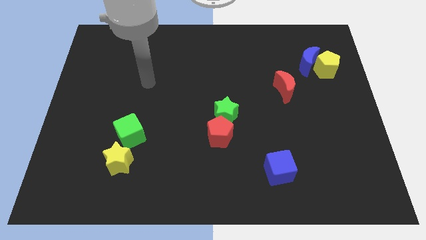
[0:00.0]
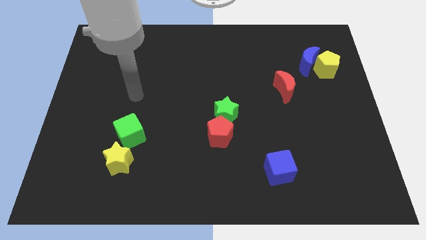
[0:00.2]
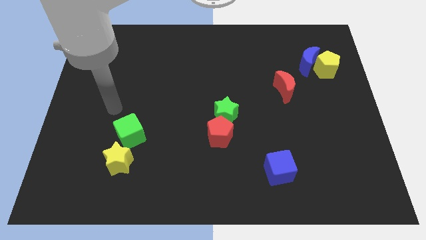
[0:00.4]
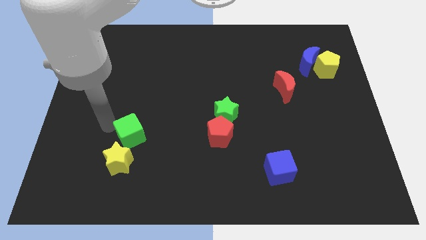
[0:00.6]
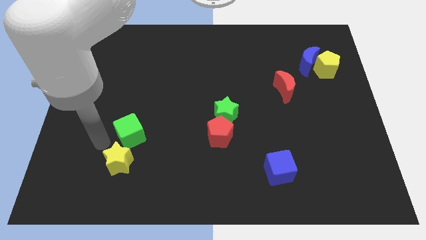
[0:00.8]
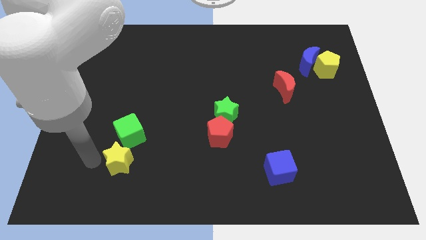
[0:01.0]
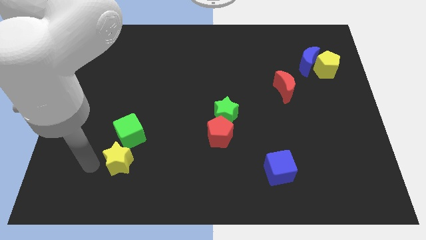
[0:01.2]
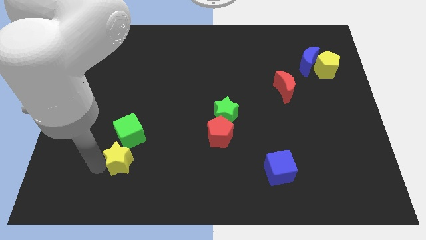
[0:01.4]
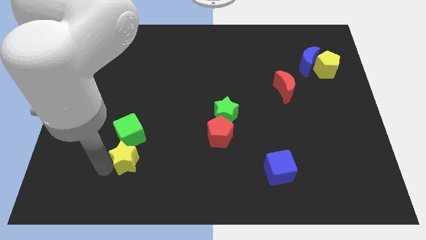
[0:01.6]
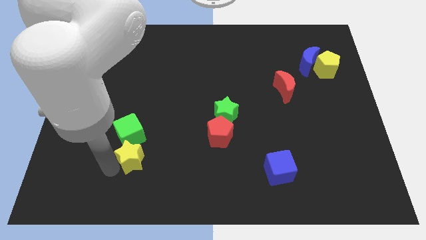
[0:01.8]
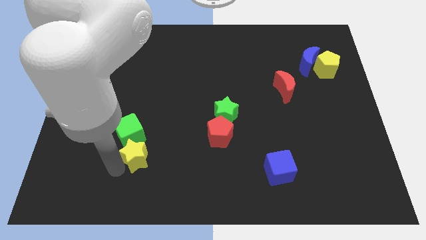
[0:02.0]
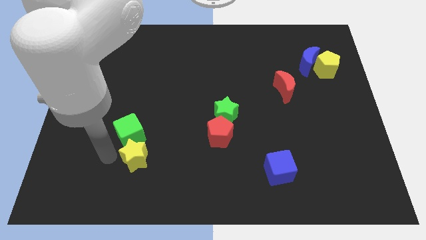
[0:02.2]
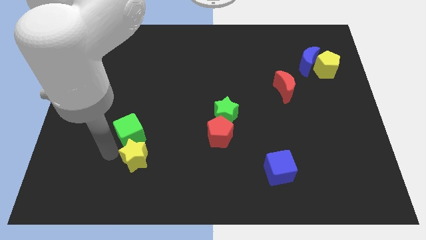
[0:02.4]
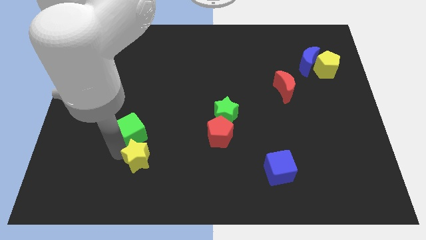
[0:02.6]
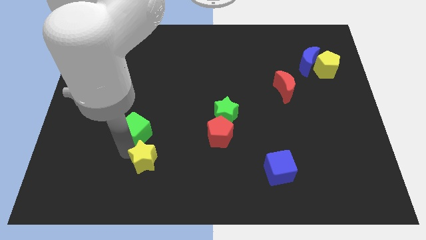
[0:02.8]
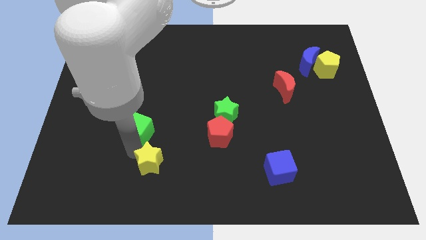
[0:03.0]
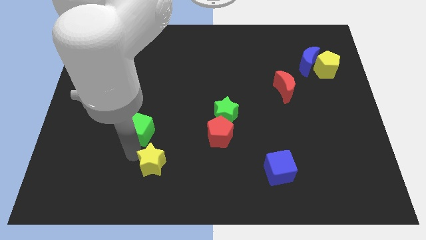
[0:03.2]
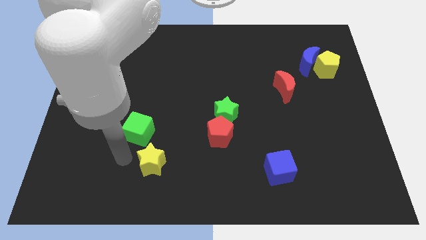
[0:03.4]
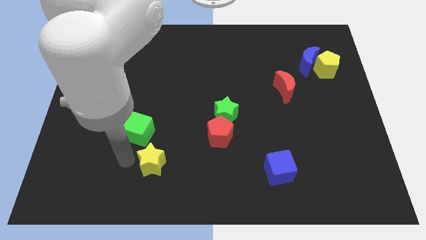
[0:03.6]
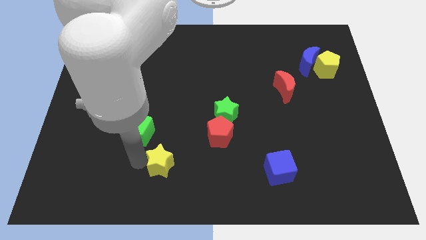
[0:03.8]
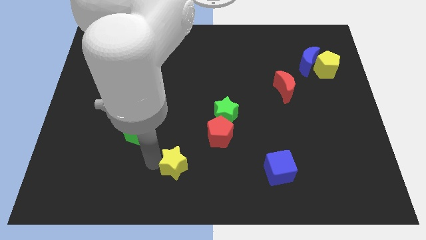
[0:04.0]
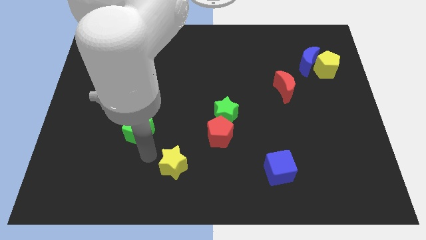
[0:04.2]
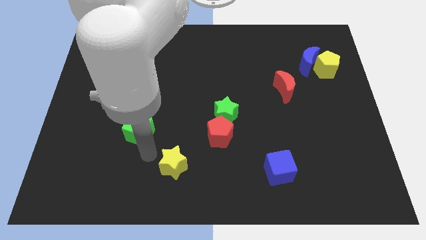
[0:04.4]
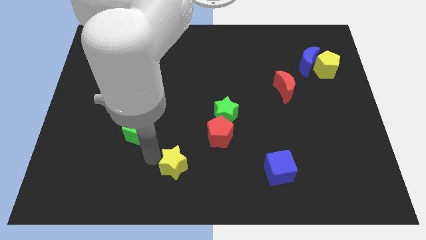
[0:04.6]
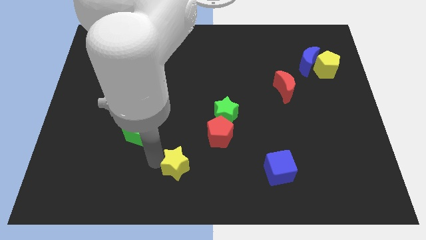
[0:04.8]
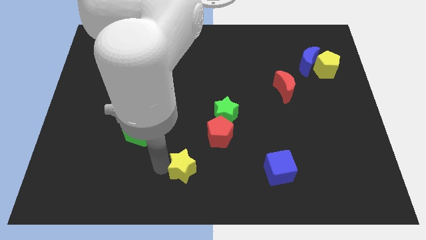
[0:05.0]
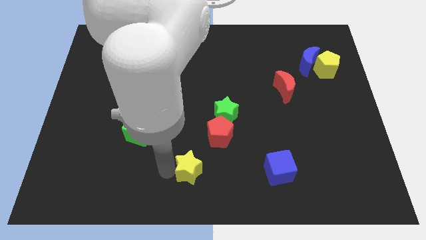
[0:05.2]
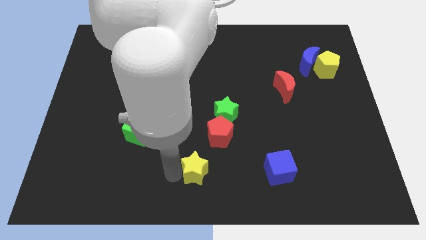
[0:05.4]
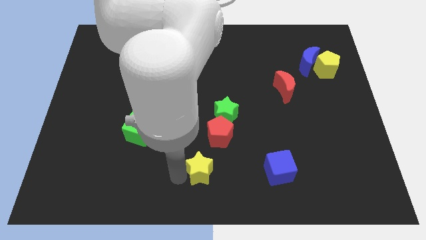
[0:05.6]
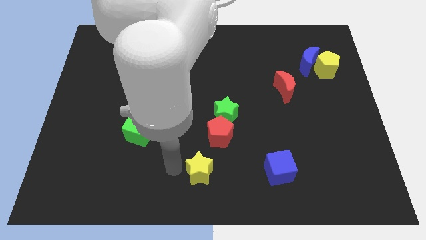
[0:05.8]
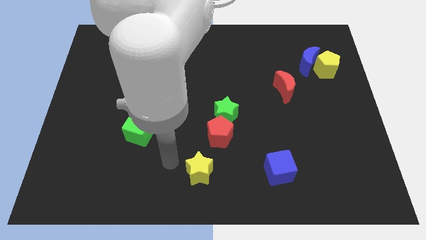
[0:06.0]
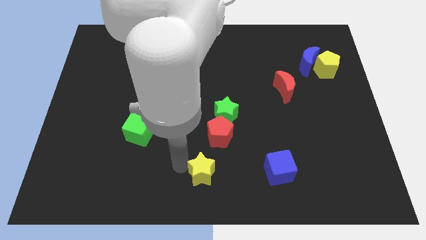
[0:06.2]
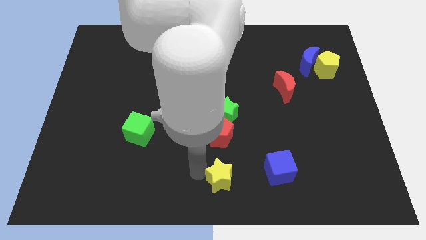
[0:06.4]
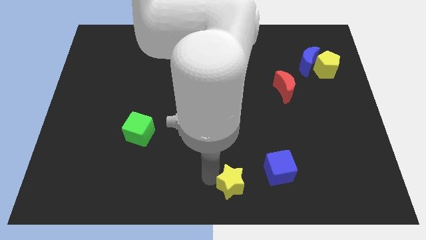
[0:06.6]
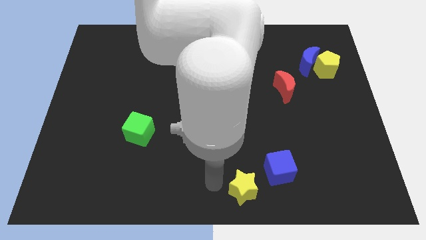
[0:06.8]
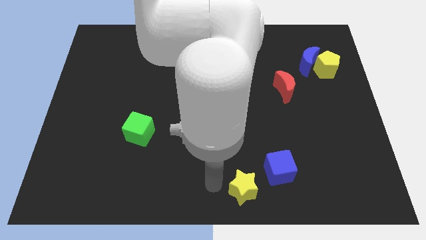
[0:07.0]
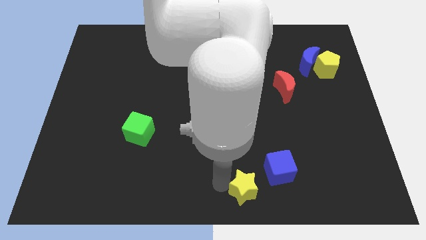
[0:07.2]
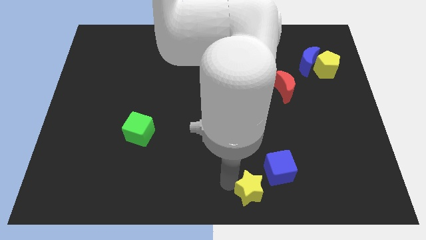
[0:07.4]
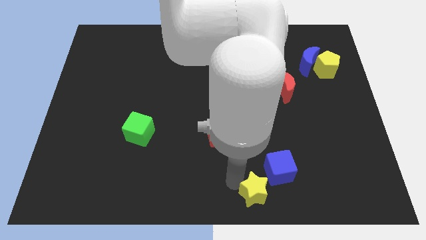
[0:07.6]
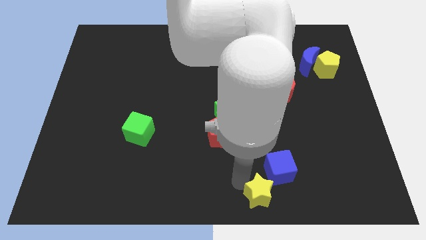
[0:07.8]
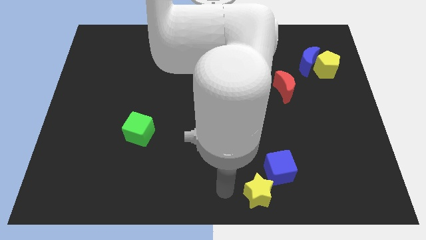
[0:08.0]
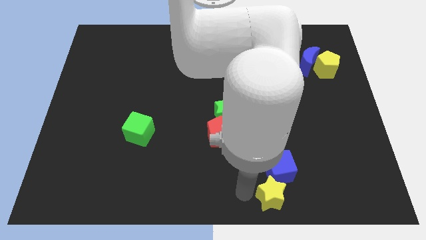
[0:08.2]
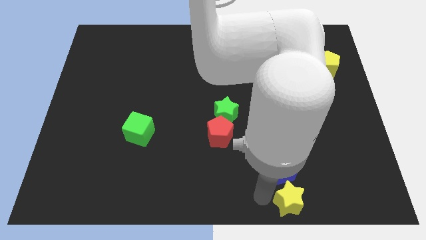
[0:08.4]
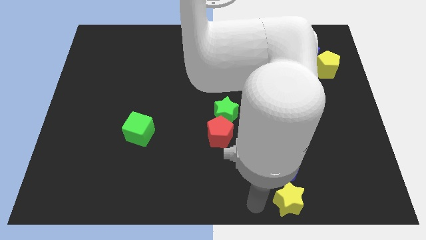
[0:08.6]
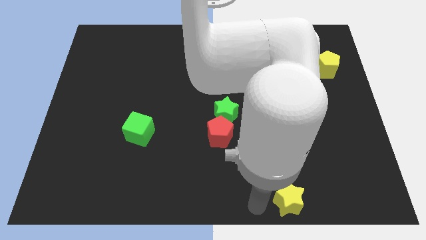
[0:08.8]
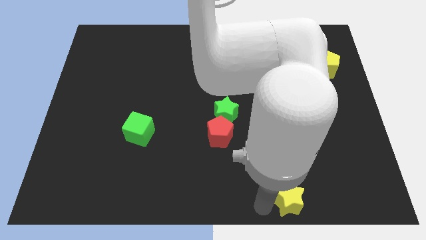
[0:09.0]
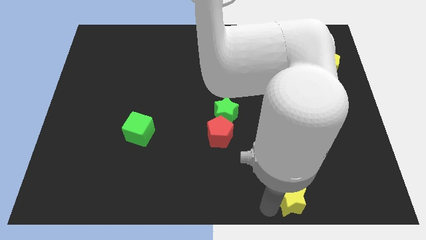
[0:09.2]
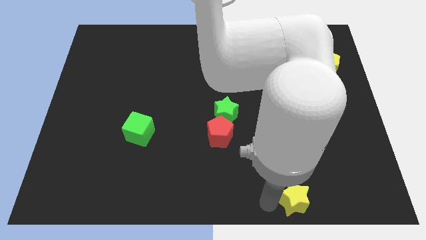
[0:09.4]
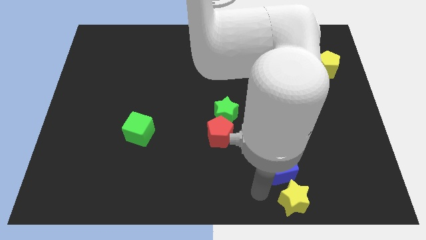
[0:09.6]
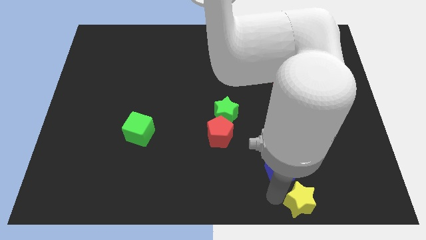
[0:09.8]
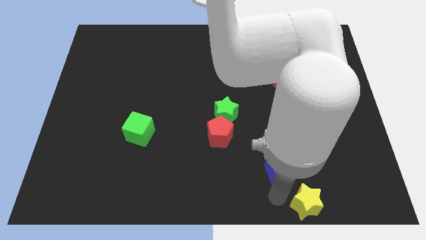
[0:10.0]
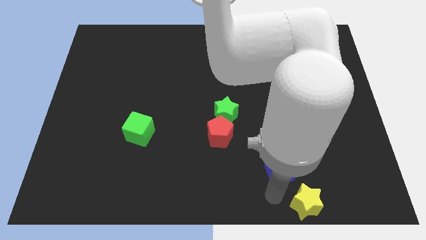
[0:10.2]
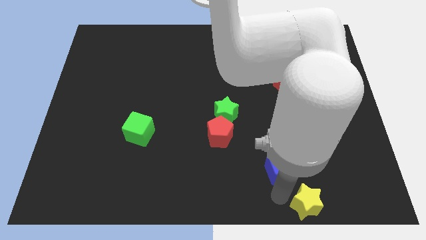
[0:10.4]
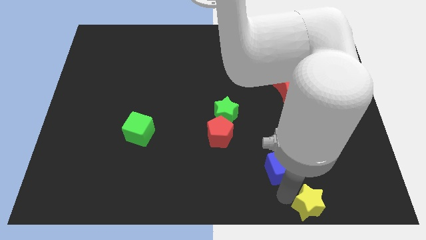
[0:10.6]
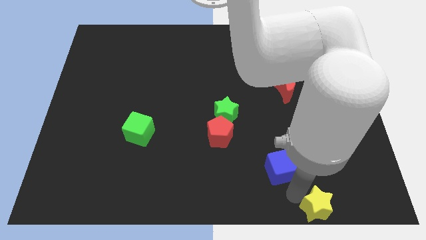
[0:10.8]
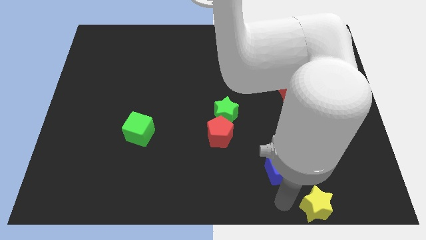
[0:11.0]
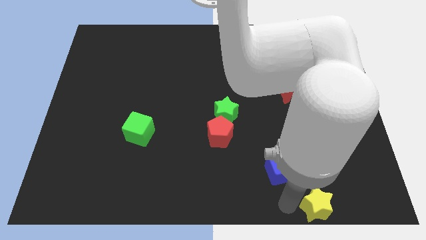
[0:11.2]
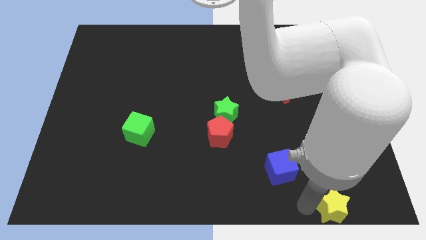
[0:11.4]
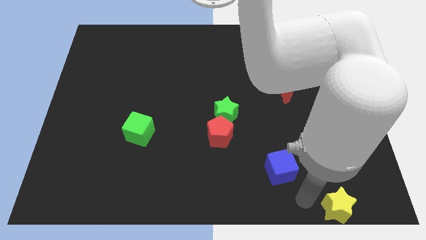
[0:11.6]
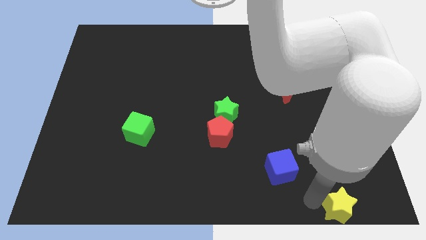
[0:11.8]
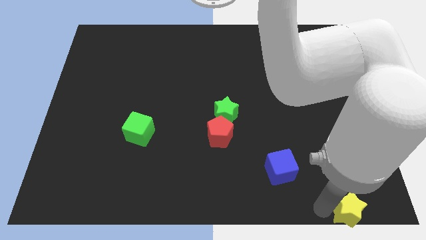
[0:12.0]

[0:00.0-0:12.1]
push the yellow star to the bottom right

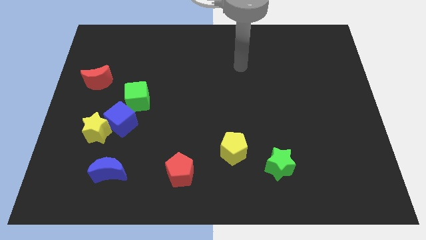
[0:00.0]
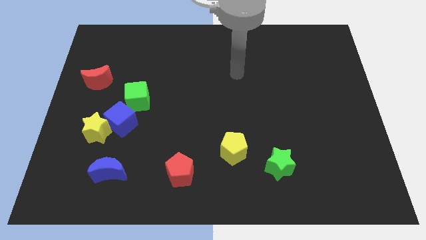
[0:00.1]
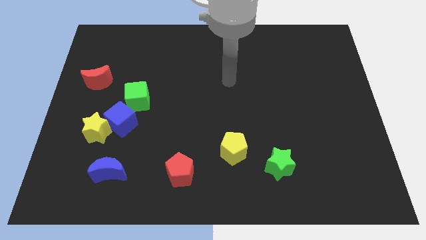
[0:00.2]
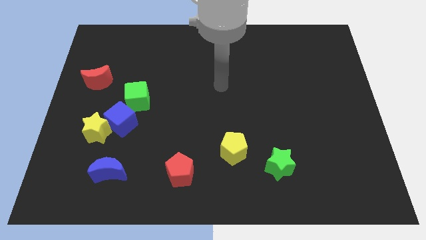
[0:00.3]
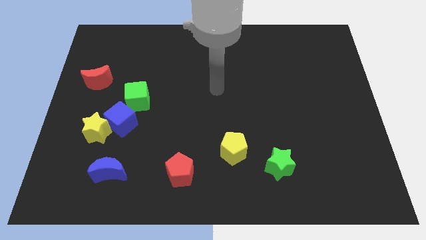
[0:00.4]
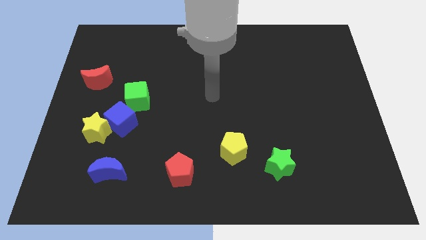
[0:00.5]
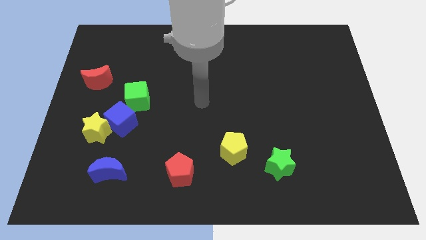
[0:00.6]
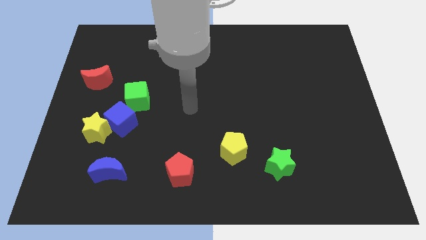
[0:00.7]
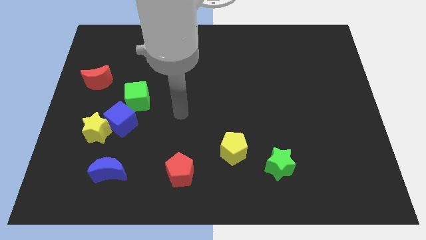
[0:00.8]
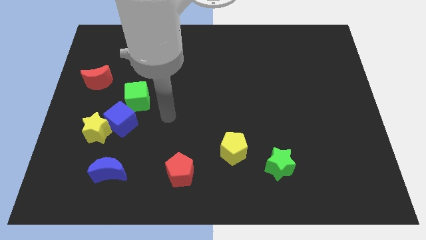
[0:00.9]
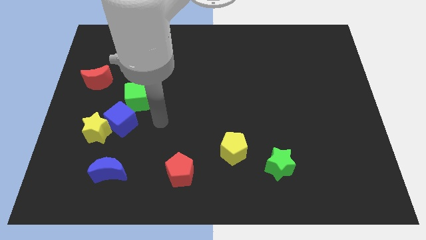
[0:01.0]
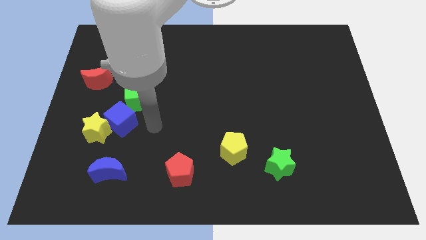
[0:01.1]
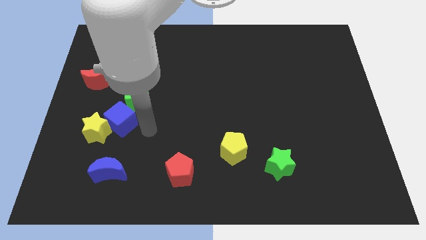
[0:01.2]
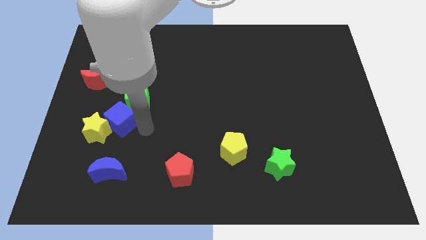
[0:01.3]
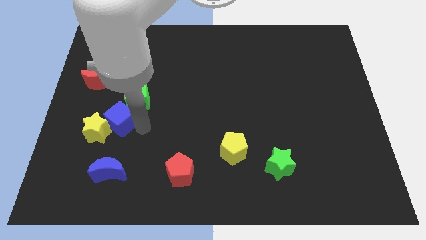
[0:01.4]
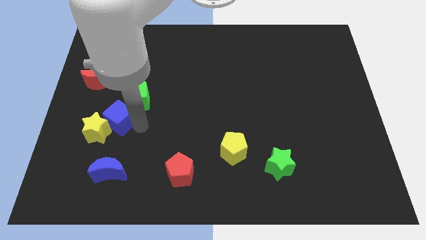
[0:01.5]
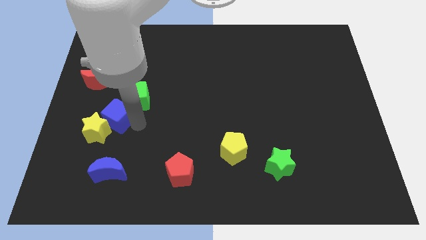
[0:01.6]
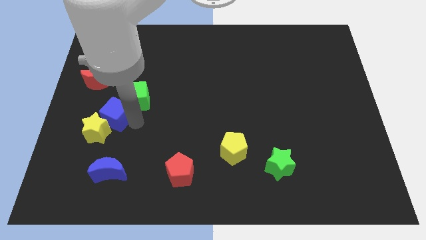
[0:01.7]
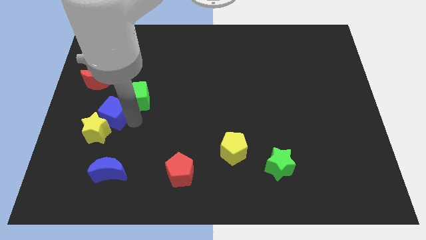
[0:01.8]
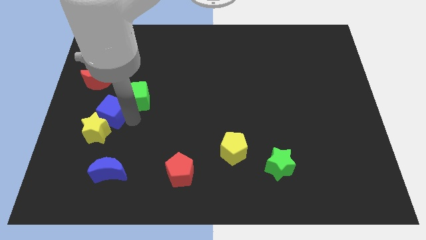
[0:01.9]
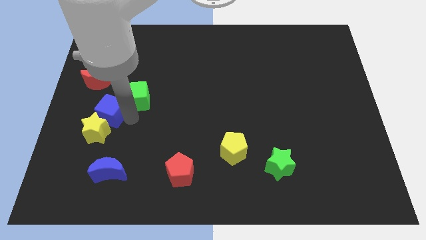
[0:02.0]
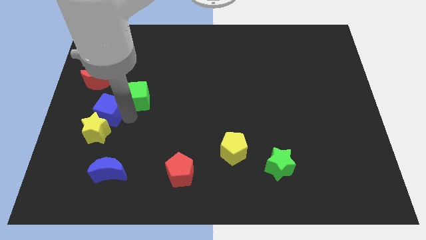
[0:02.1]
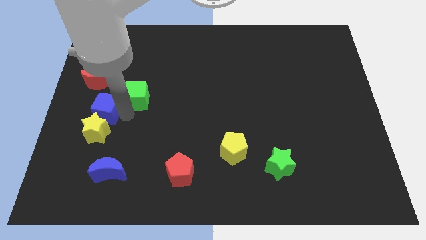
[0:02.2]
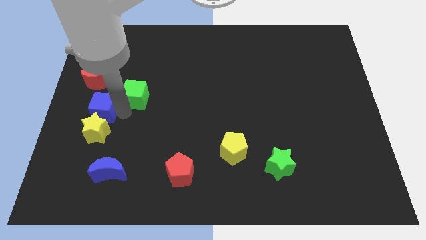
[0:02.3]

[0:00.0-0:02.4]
move the blue cube to the left side of the board
